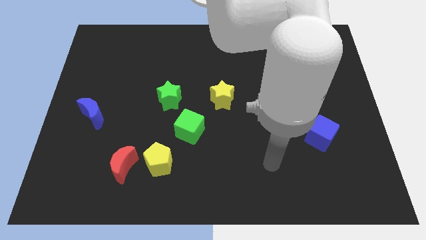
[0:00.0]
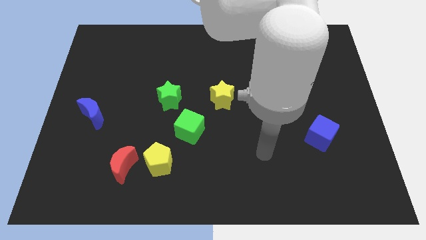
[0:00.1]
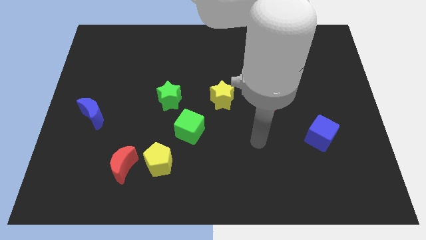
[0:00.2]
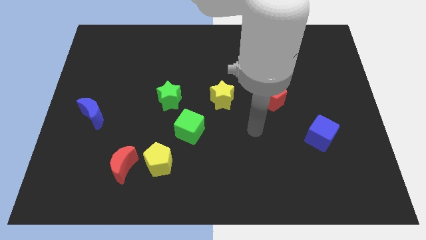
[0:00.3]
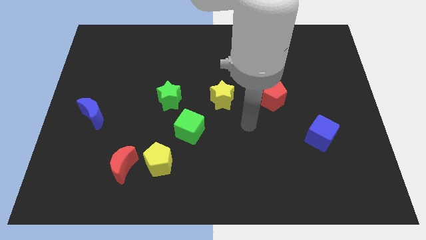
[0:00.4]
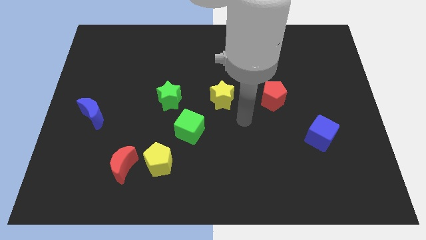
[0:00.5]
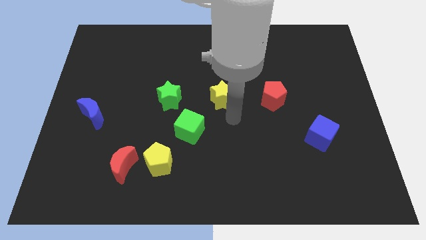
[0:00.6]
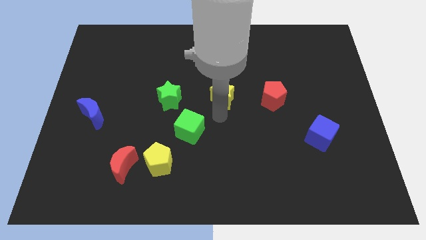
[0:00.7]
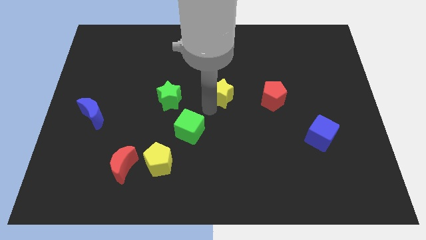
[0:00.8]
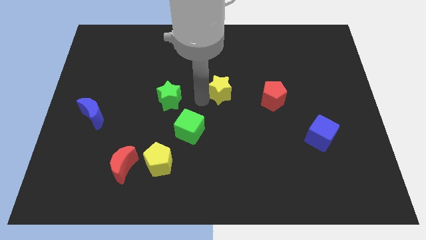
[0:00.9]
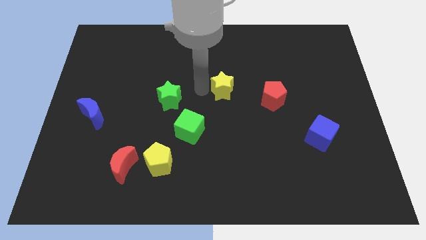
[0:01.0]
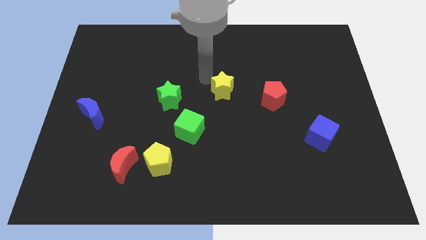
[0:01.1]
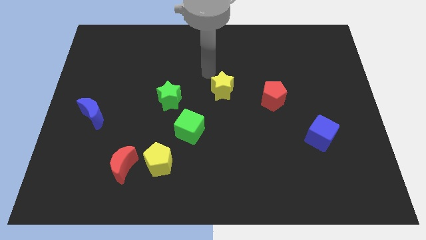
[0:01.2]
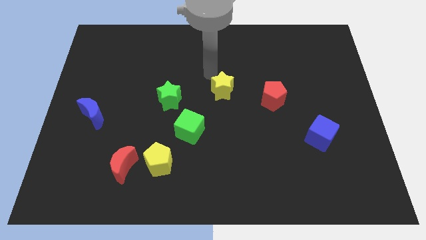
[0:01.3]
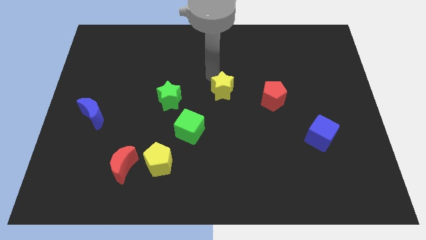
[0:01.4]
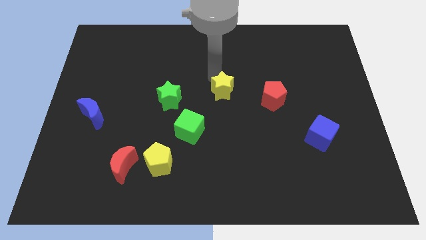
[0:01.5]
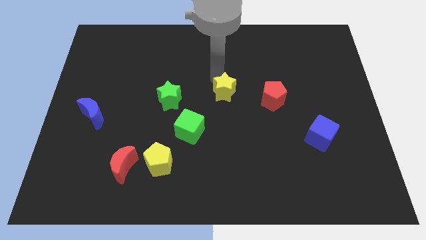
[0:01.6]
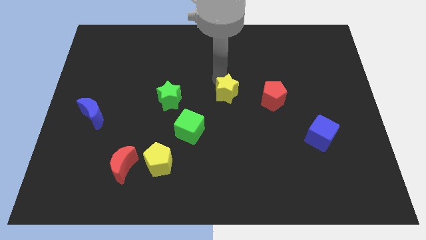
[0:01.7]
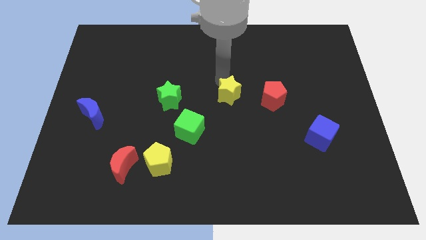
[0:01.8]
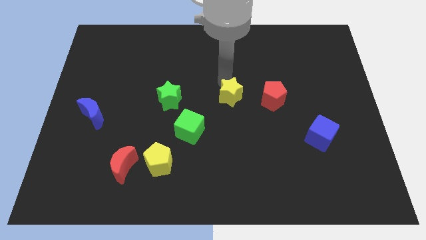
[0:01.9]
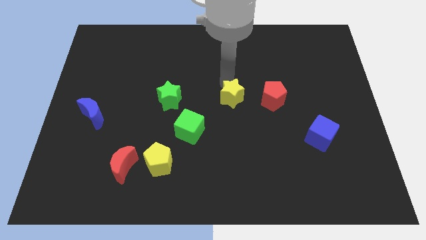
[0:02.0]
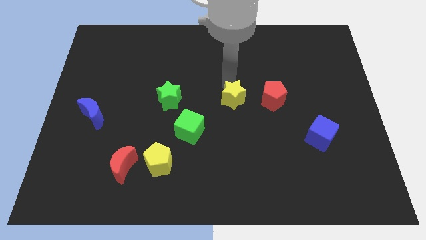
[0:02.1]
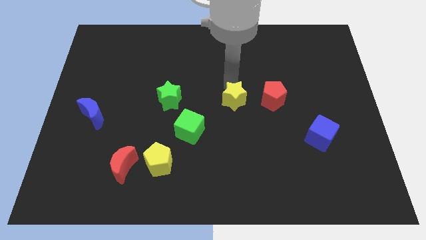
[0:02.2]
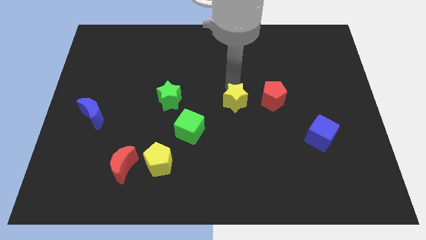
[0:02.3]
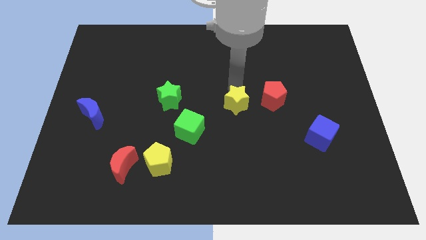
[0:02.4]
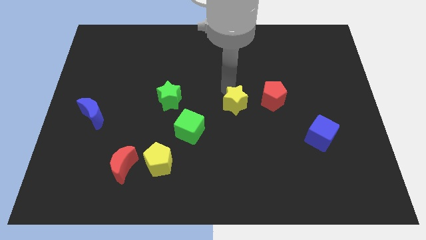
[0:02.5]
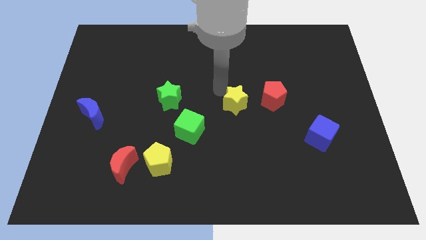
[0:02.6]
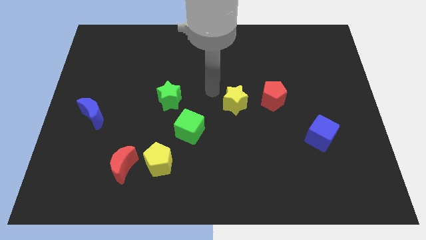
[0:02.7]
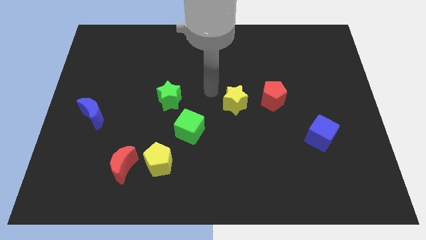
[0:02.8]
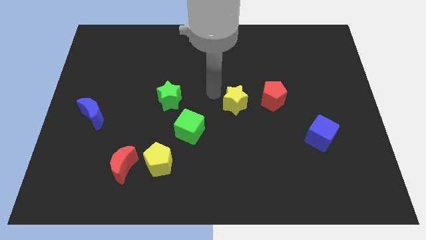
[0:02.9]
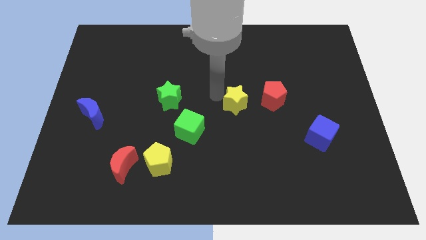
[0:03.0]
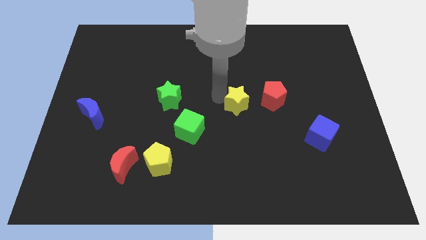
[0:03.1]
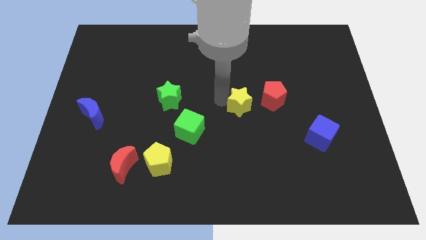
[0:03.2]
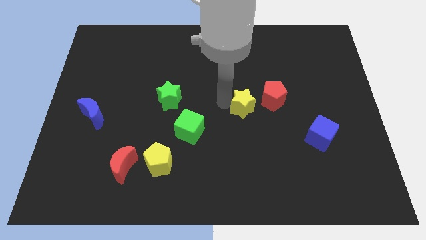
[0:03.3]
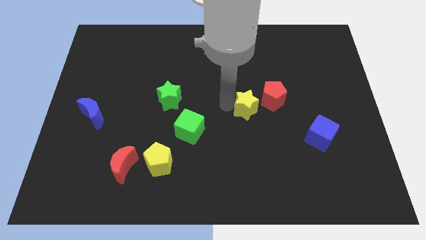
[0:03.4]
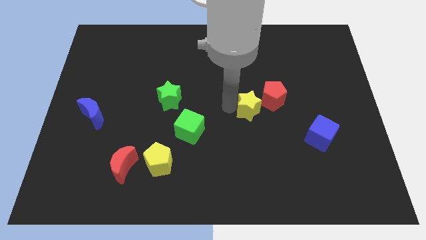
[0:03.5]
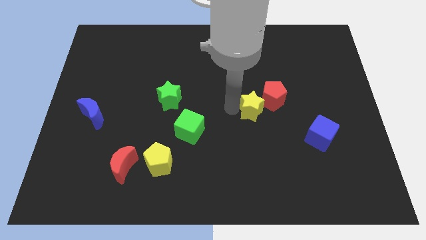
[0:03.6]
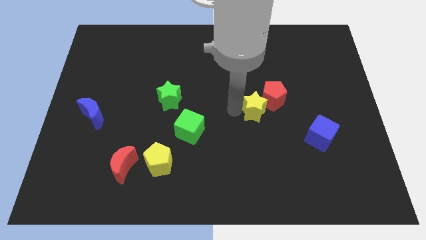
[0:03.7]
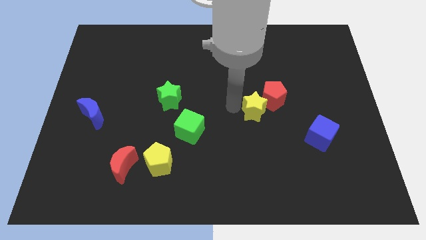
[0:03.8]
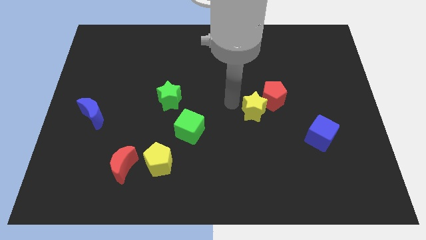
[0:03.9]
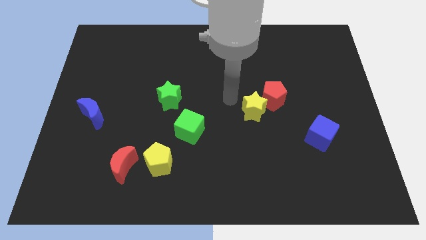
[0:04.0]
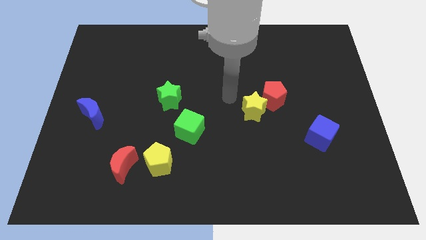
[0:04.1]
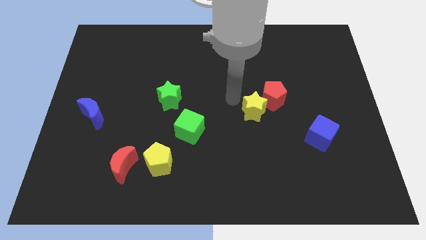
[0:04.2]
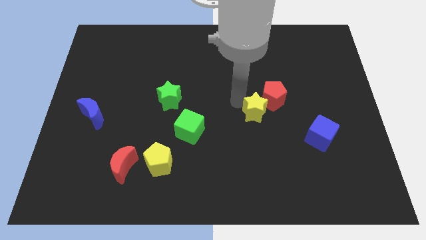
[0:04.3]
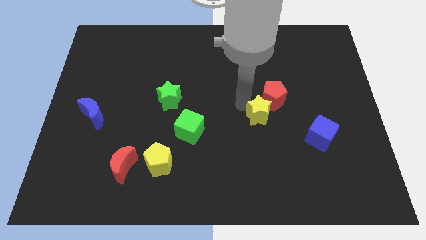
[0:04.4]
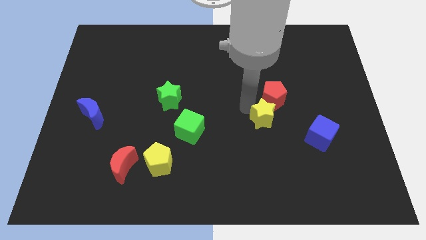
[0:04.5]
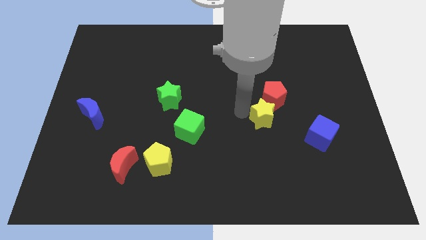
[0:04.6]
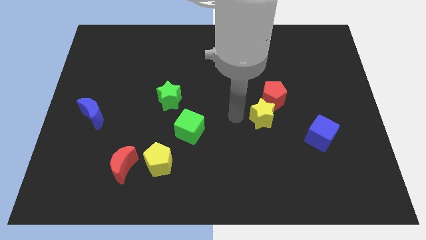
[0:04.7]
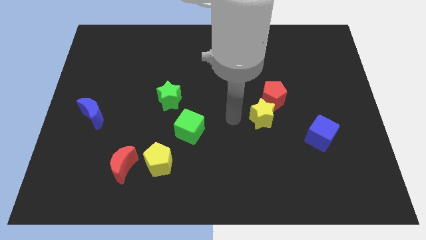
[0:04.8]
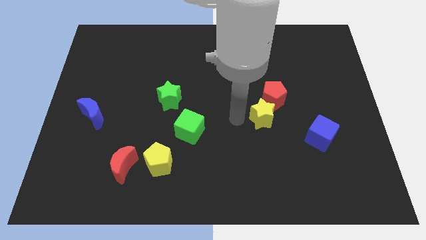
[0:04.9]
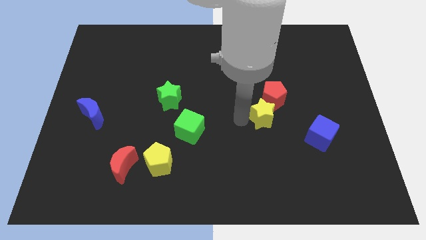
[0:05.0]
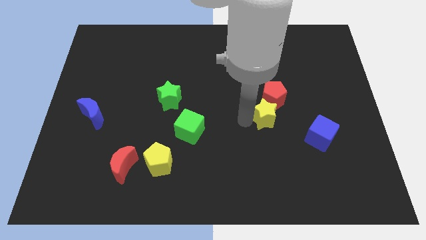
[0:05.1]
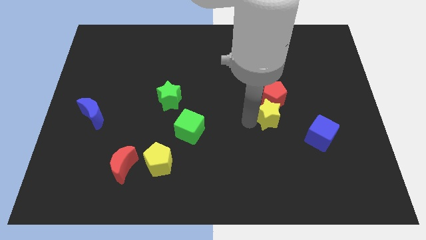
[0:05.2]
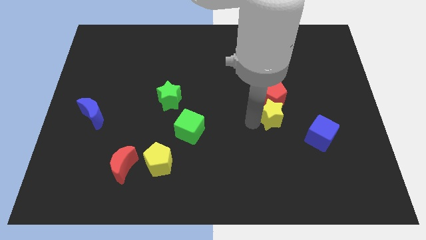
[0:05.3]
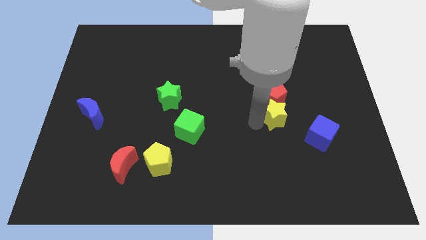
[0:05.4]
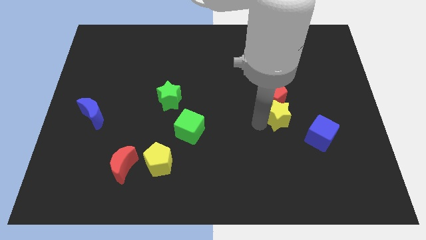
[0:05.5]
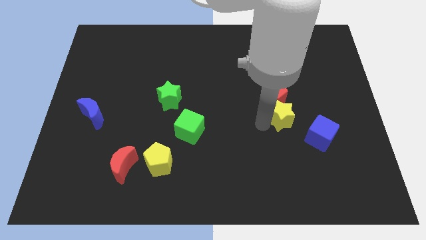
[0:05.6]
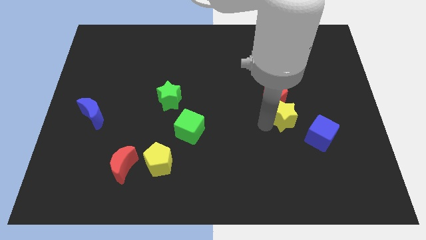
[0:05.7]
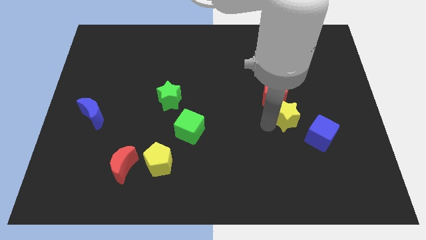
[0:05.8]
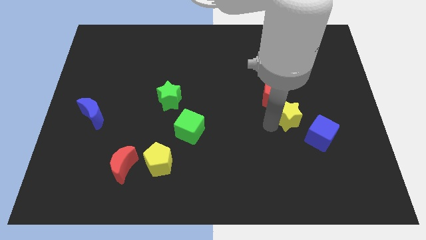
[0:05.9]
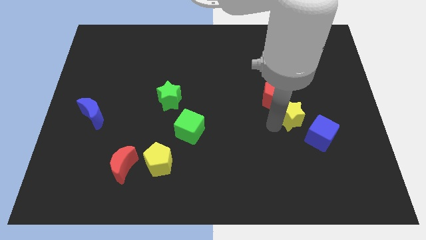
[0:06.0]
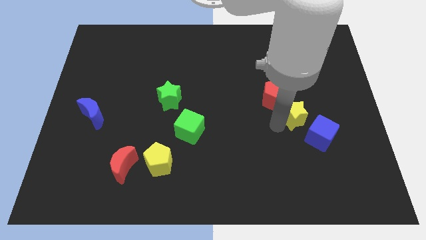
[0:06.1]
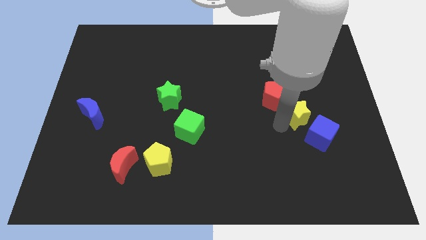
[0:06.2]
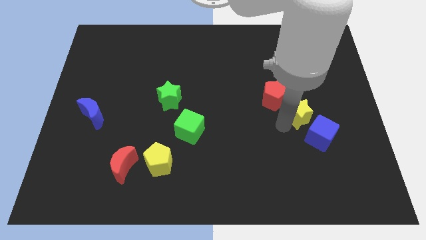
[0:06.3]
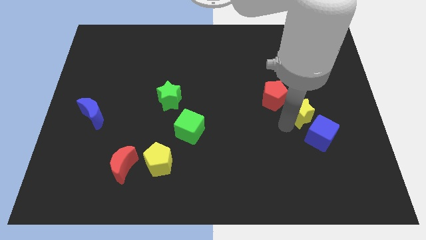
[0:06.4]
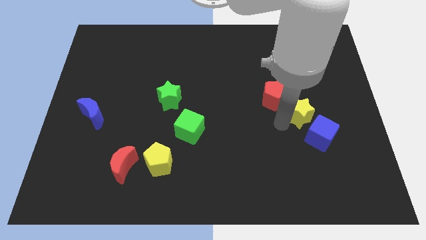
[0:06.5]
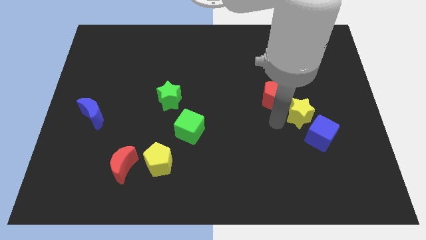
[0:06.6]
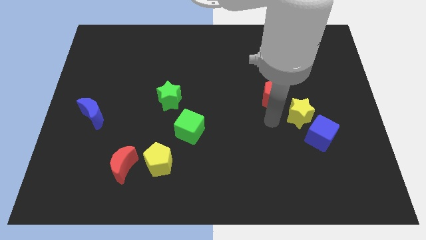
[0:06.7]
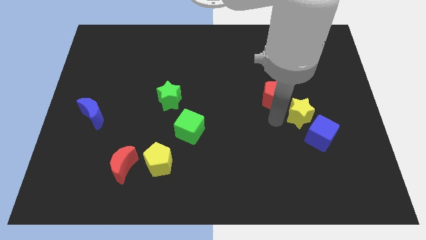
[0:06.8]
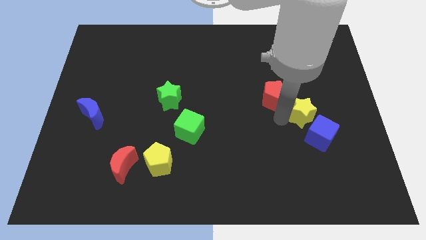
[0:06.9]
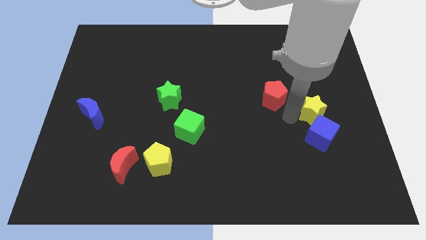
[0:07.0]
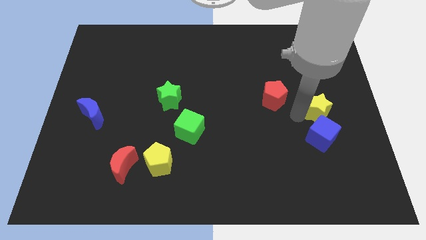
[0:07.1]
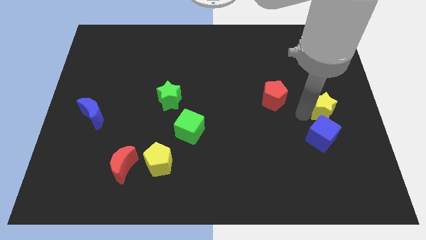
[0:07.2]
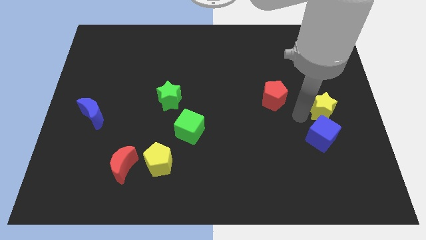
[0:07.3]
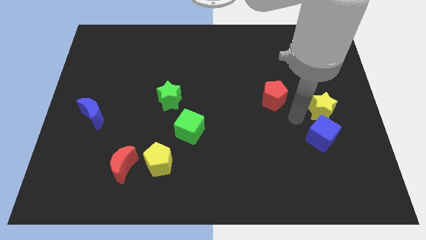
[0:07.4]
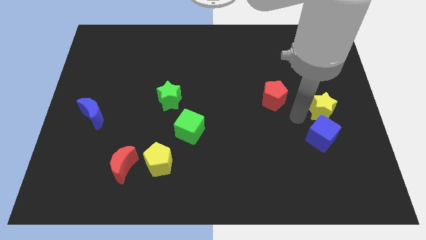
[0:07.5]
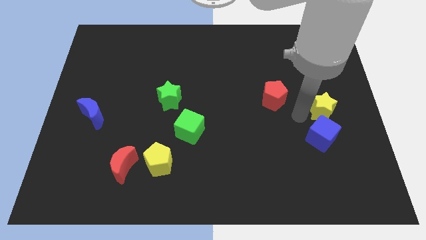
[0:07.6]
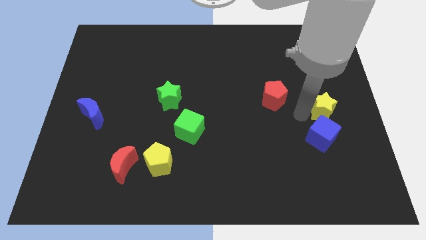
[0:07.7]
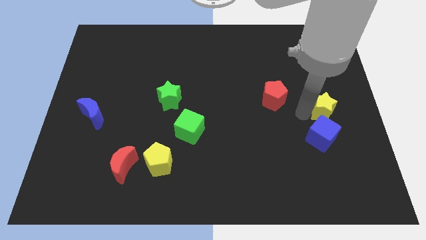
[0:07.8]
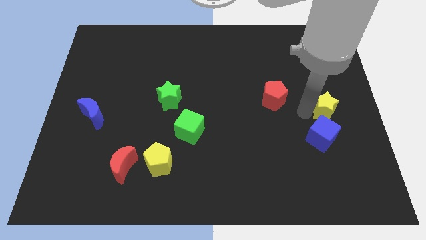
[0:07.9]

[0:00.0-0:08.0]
slide the yellow star to the center right
